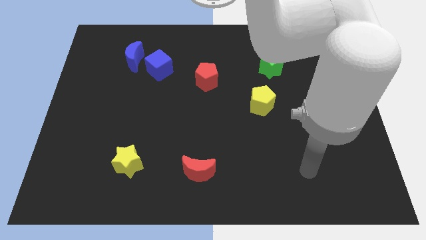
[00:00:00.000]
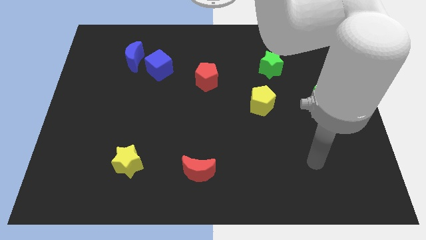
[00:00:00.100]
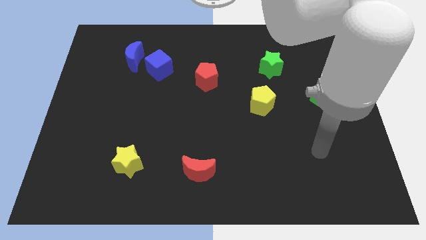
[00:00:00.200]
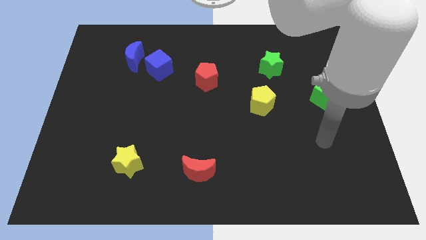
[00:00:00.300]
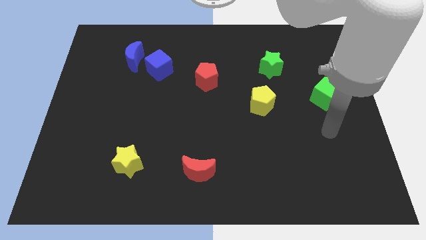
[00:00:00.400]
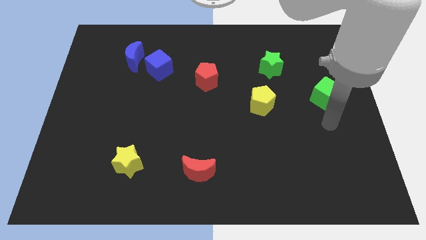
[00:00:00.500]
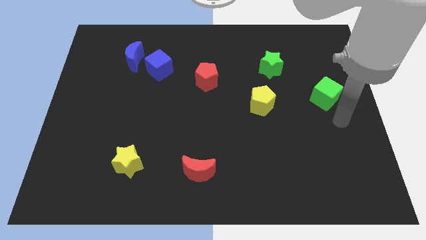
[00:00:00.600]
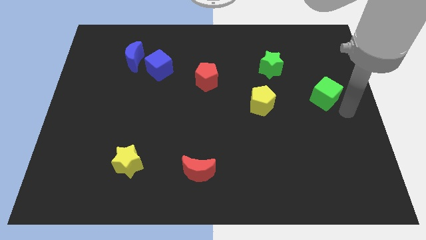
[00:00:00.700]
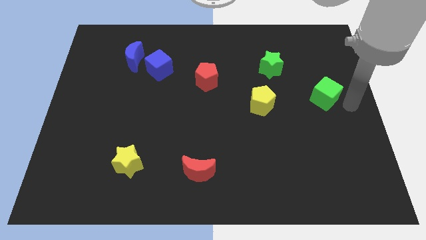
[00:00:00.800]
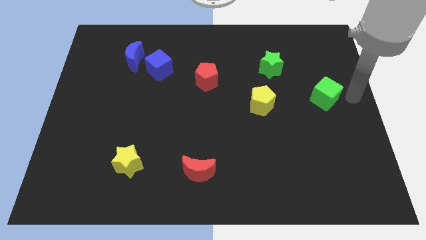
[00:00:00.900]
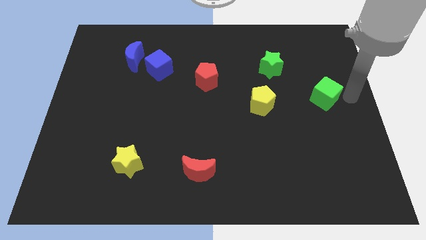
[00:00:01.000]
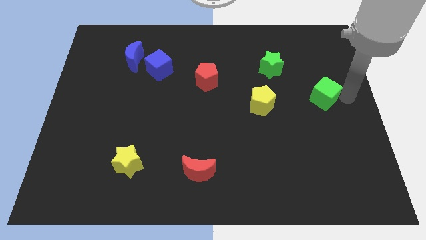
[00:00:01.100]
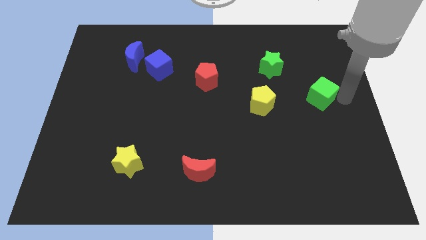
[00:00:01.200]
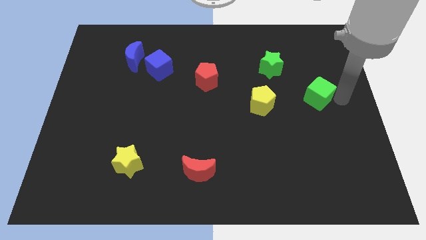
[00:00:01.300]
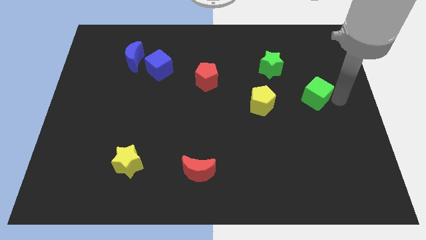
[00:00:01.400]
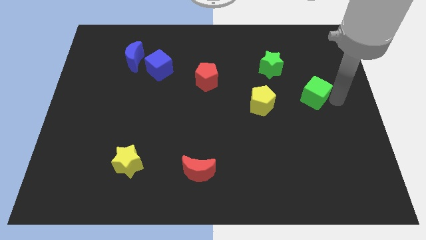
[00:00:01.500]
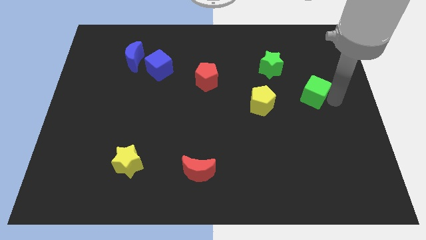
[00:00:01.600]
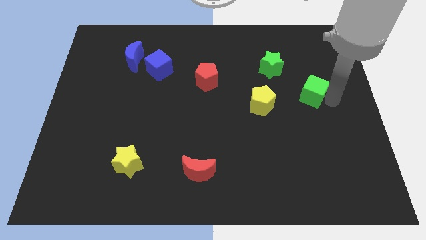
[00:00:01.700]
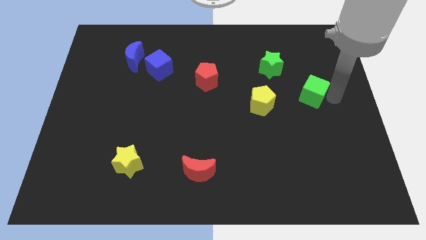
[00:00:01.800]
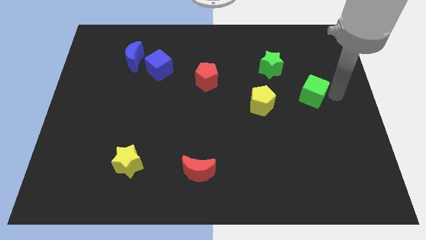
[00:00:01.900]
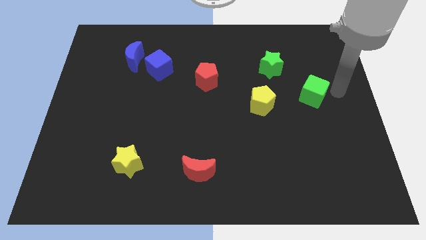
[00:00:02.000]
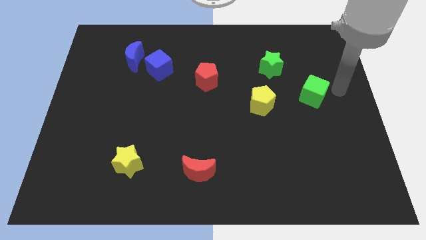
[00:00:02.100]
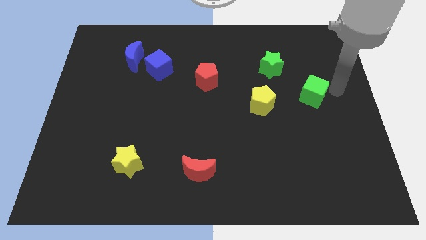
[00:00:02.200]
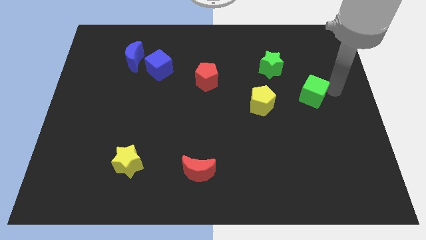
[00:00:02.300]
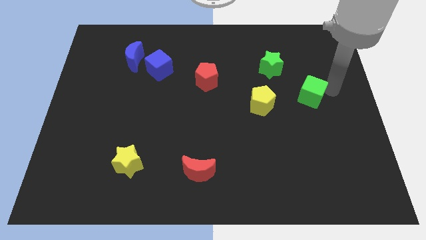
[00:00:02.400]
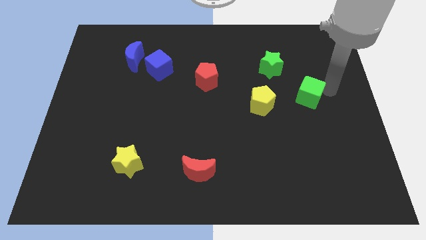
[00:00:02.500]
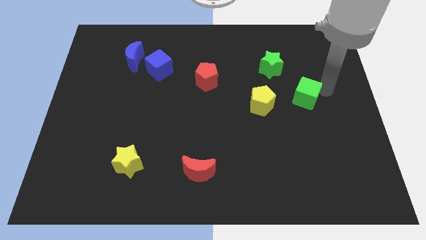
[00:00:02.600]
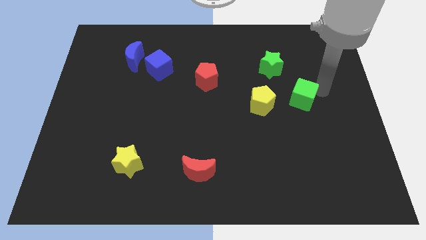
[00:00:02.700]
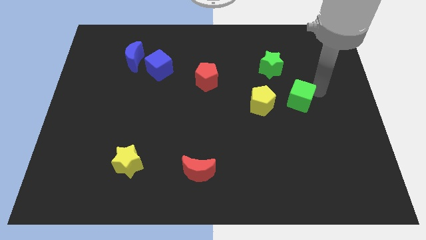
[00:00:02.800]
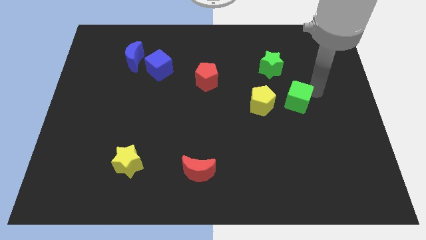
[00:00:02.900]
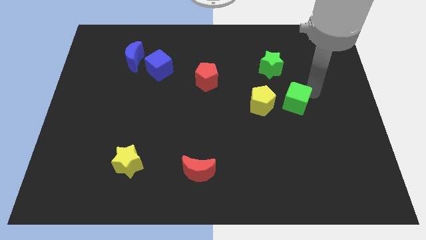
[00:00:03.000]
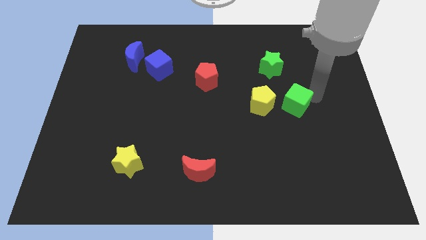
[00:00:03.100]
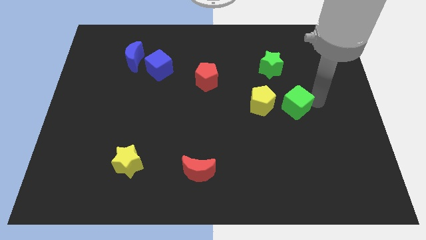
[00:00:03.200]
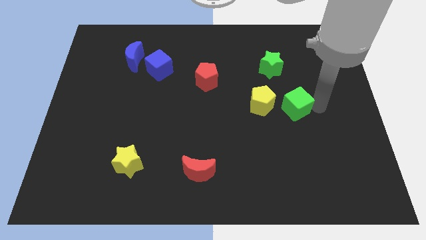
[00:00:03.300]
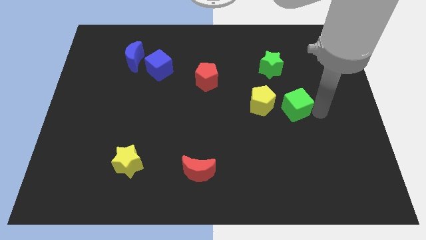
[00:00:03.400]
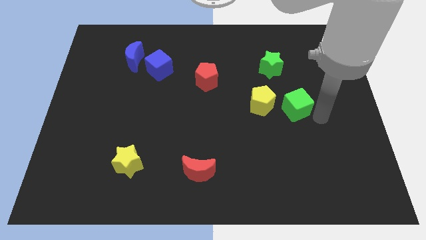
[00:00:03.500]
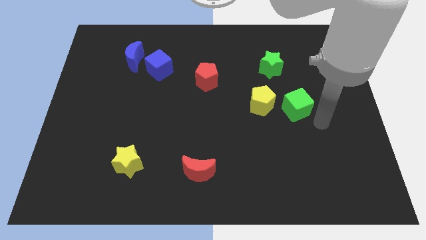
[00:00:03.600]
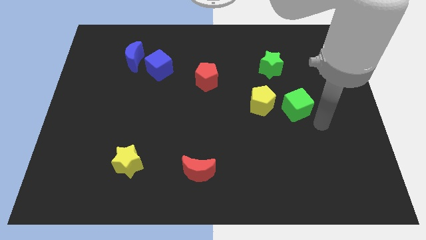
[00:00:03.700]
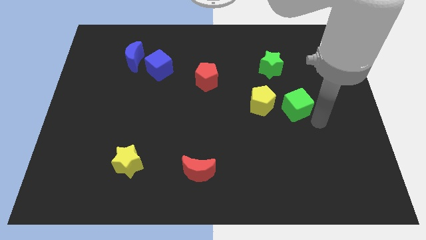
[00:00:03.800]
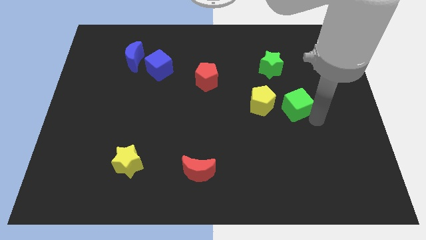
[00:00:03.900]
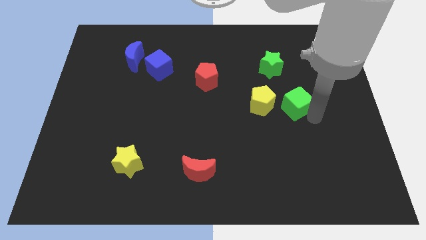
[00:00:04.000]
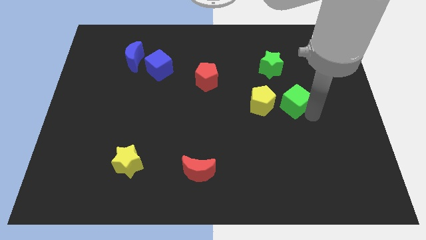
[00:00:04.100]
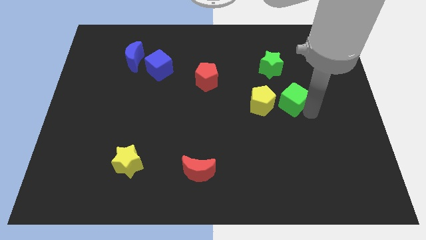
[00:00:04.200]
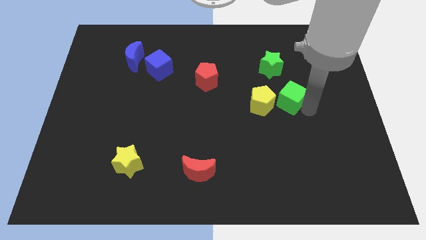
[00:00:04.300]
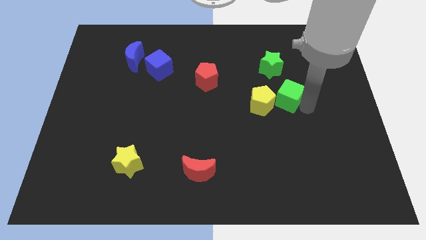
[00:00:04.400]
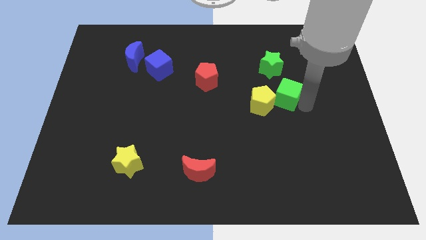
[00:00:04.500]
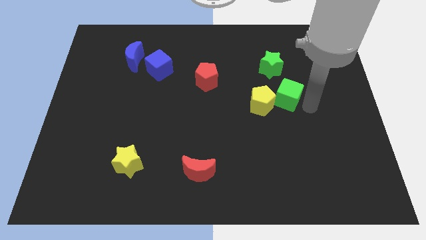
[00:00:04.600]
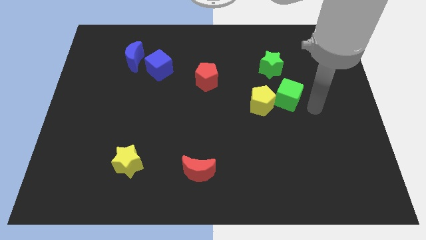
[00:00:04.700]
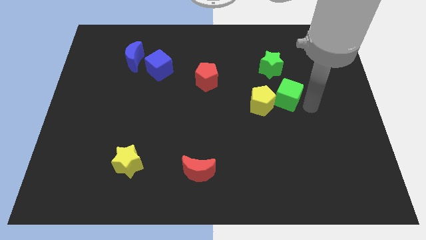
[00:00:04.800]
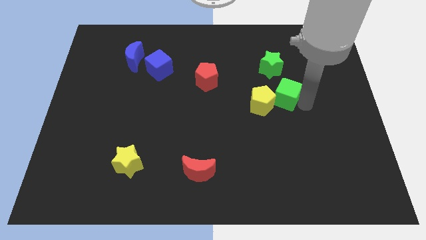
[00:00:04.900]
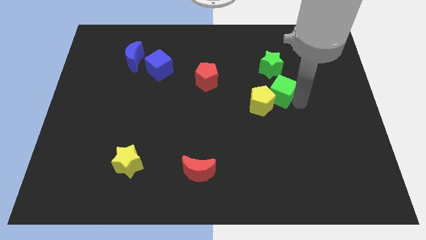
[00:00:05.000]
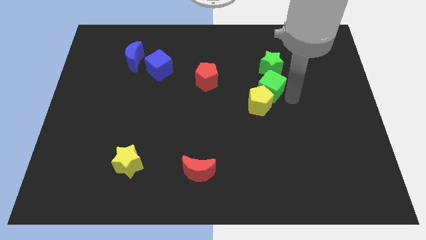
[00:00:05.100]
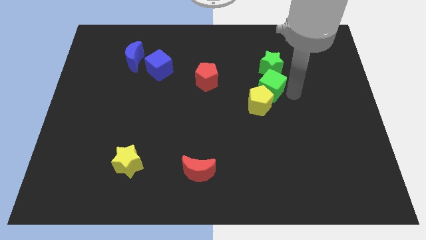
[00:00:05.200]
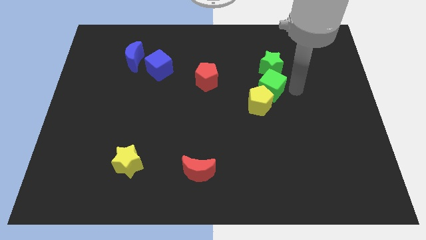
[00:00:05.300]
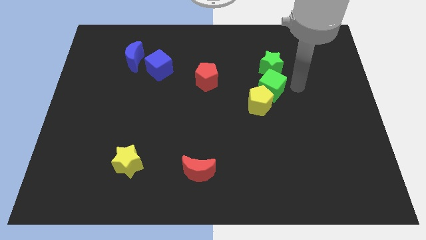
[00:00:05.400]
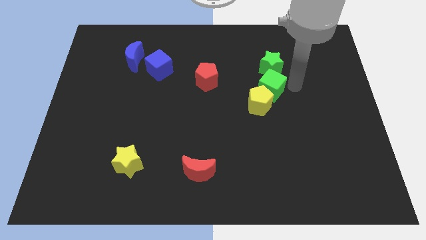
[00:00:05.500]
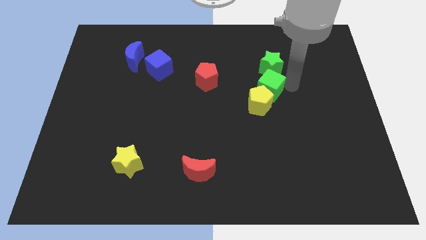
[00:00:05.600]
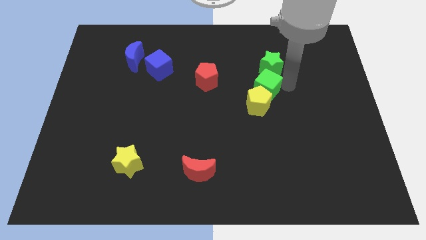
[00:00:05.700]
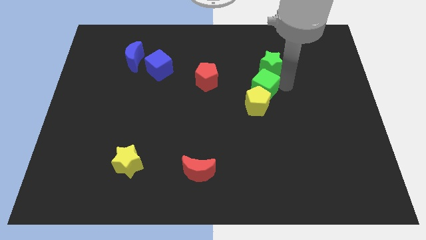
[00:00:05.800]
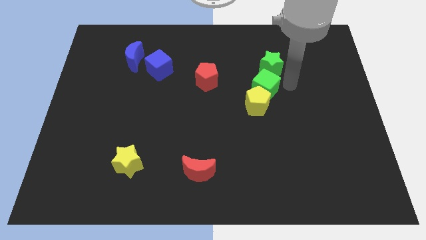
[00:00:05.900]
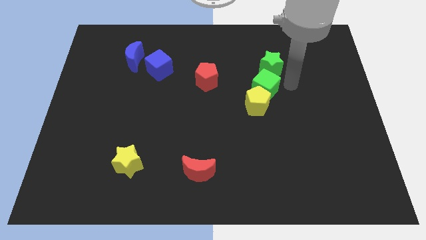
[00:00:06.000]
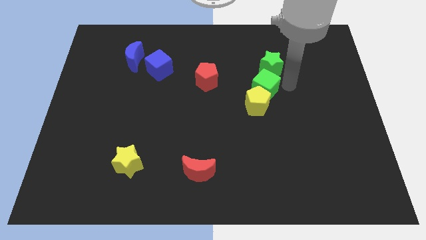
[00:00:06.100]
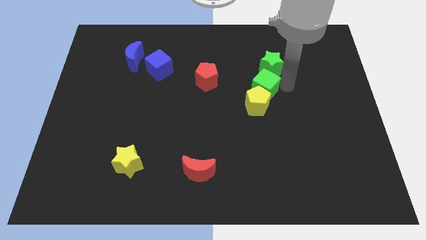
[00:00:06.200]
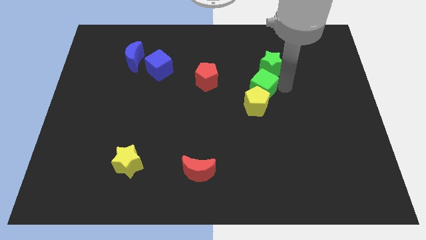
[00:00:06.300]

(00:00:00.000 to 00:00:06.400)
move the green cube to the center
